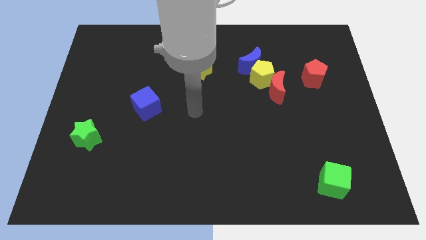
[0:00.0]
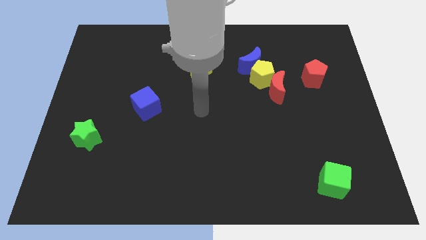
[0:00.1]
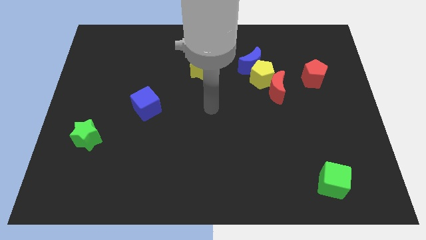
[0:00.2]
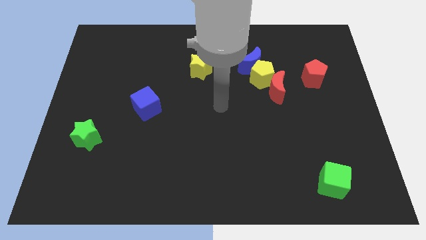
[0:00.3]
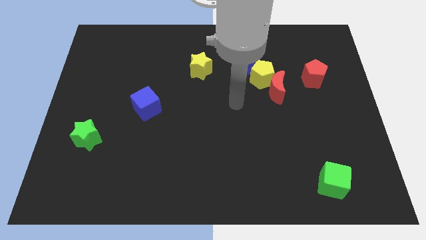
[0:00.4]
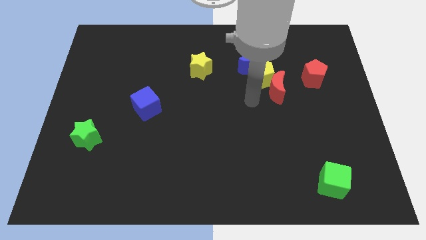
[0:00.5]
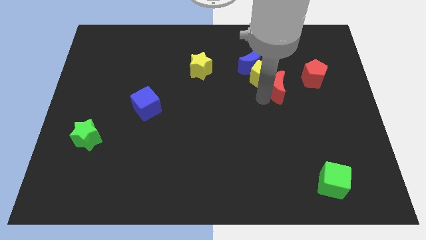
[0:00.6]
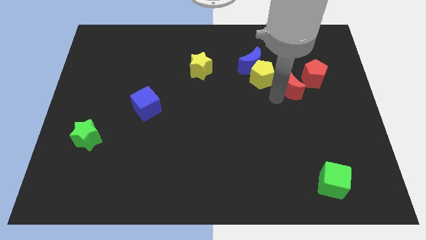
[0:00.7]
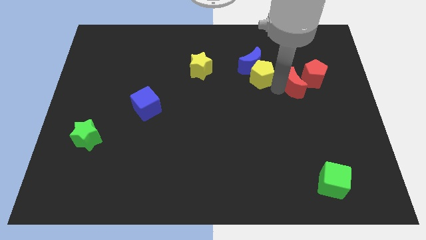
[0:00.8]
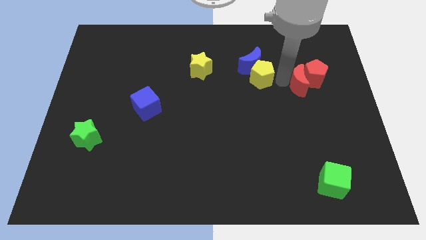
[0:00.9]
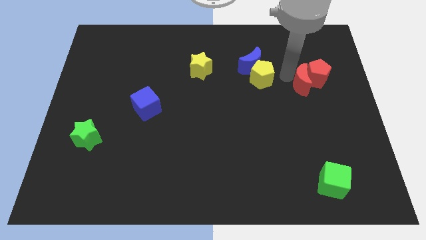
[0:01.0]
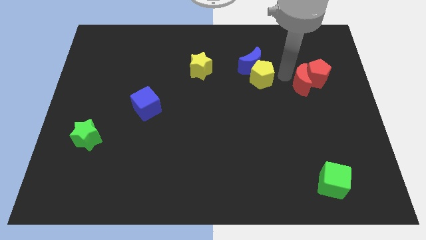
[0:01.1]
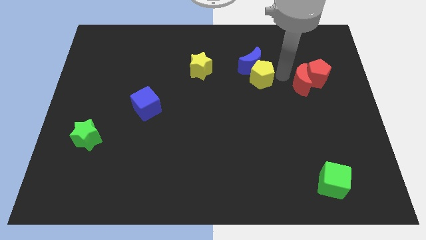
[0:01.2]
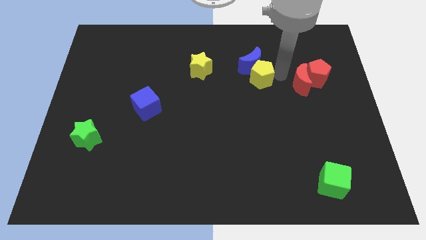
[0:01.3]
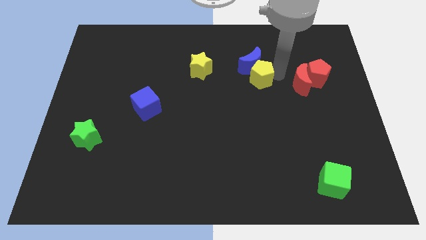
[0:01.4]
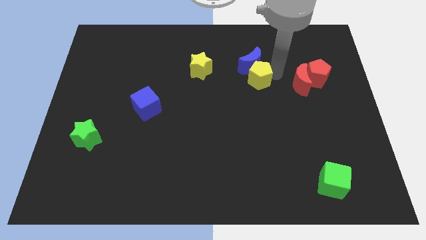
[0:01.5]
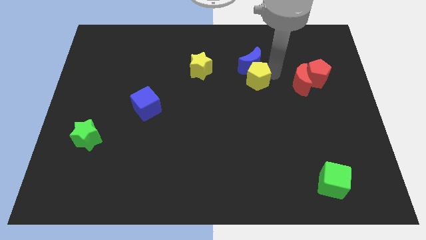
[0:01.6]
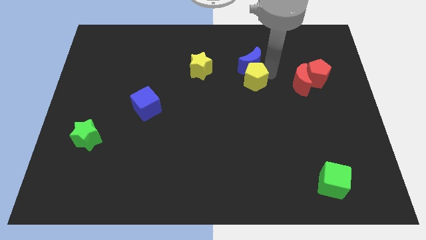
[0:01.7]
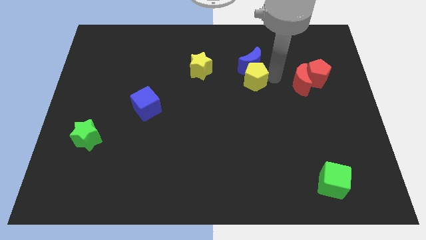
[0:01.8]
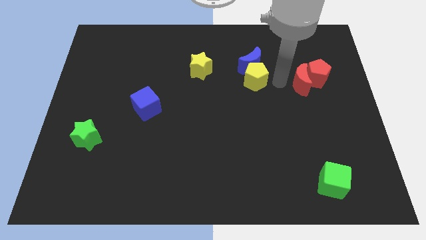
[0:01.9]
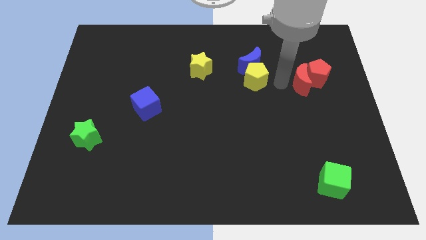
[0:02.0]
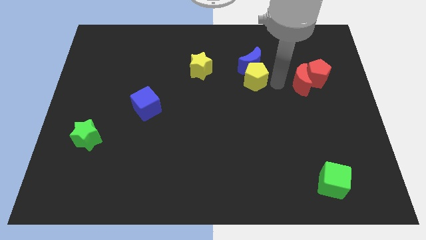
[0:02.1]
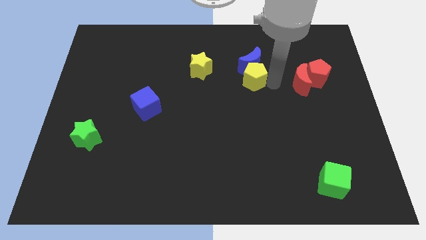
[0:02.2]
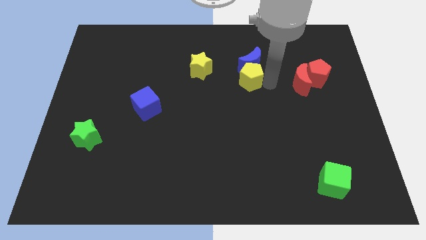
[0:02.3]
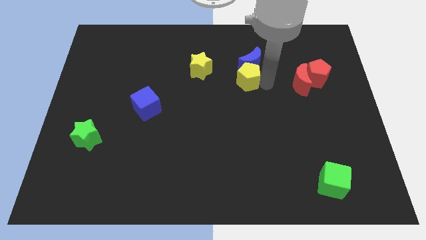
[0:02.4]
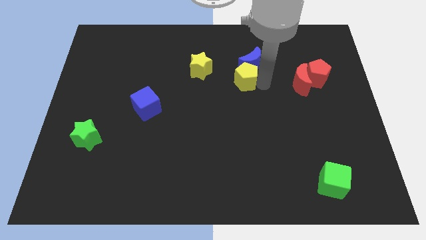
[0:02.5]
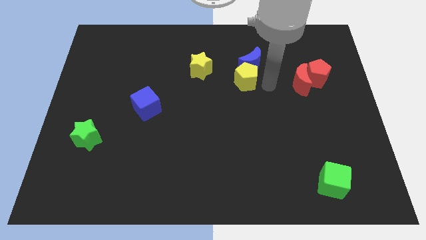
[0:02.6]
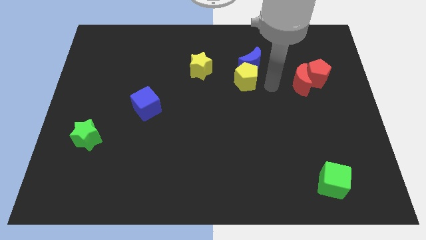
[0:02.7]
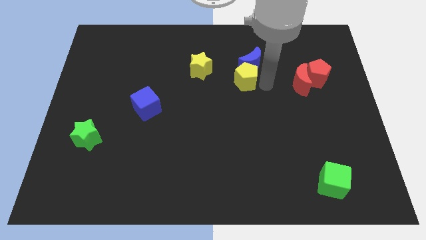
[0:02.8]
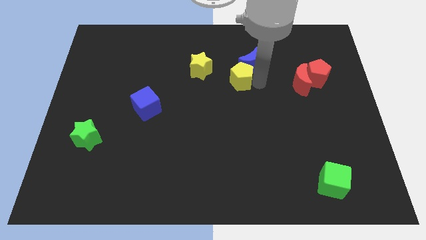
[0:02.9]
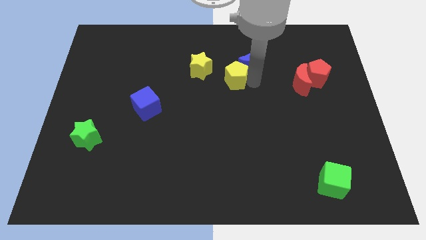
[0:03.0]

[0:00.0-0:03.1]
pull the yellow pentagon apart from the blue moon and red moon

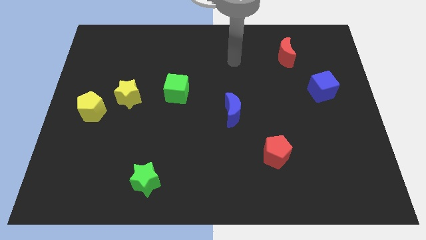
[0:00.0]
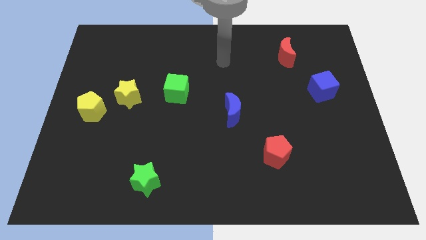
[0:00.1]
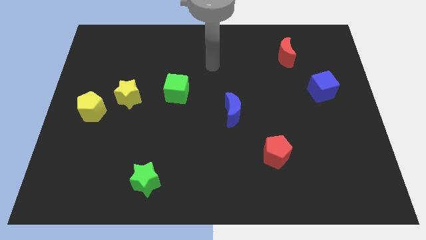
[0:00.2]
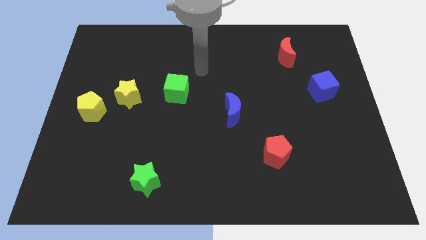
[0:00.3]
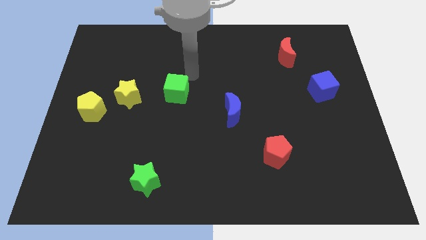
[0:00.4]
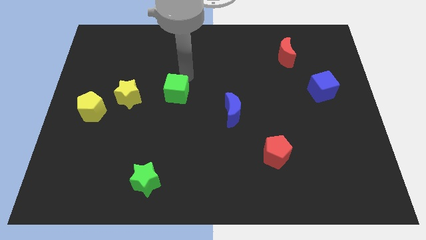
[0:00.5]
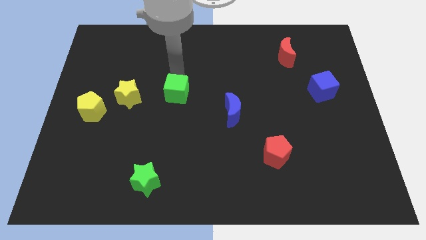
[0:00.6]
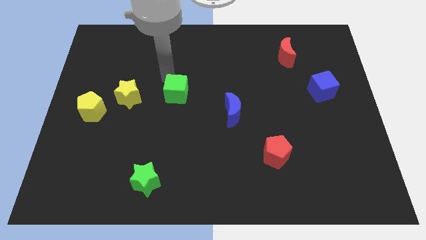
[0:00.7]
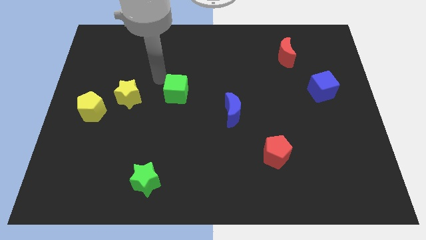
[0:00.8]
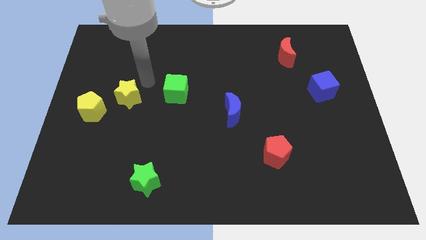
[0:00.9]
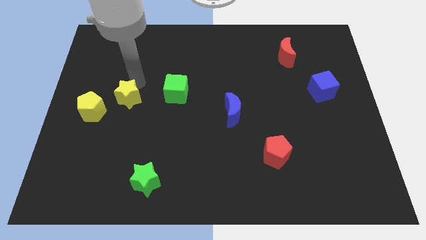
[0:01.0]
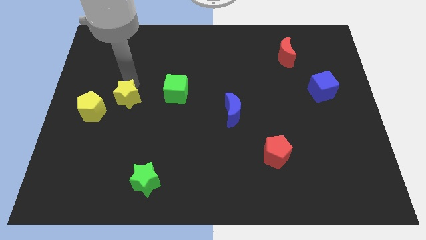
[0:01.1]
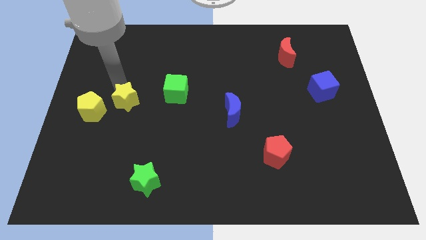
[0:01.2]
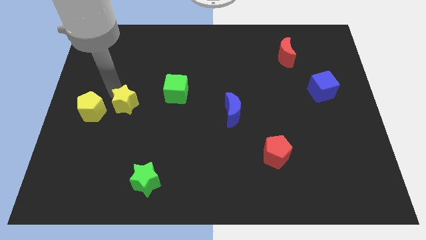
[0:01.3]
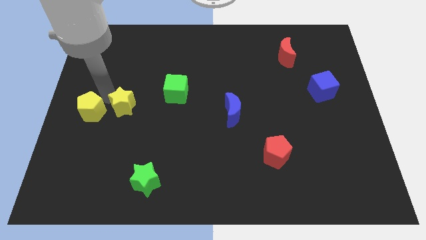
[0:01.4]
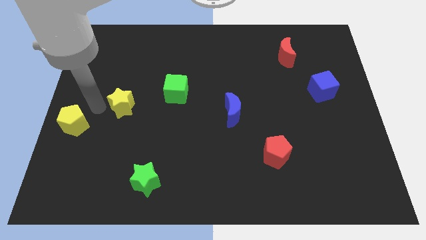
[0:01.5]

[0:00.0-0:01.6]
move the yellow star away from the yellow pentagon

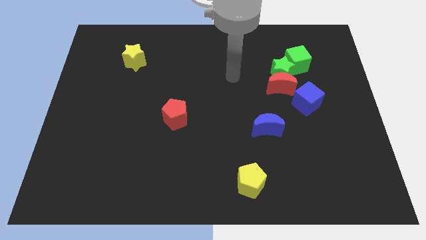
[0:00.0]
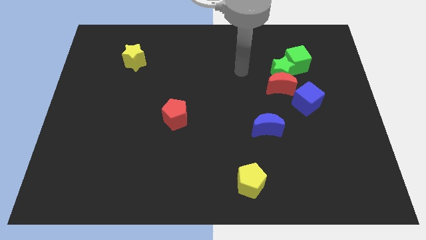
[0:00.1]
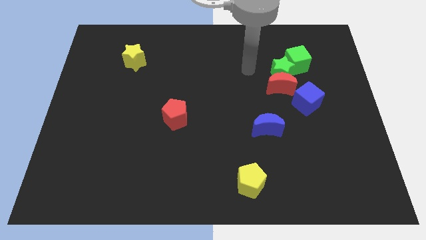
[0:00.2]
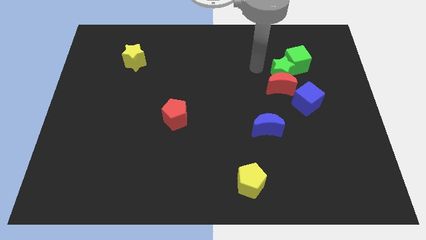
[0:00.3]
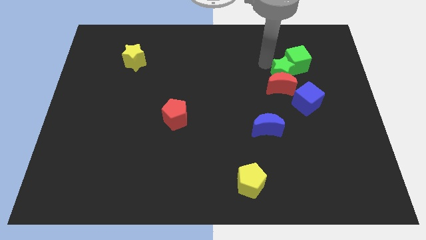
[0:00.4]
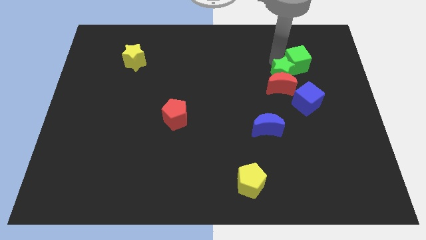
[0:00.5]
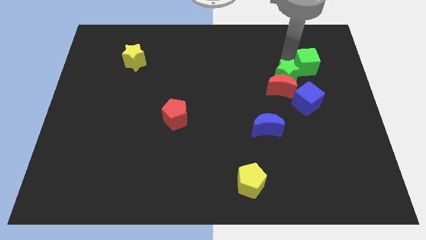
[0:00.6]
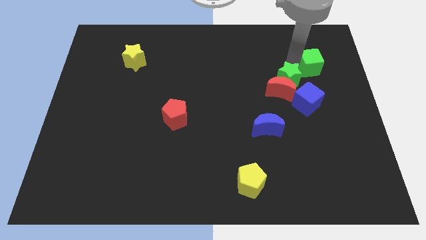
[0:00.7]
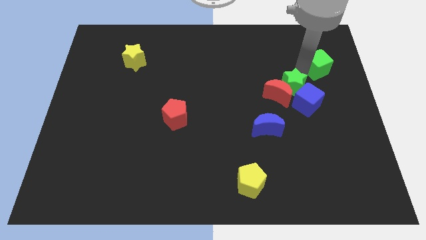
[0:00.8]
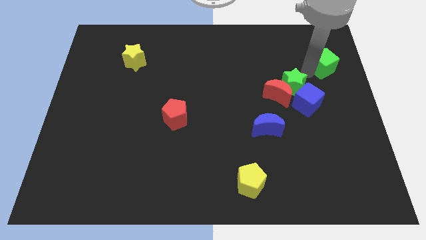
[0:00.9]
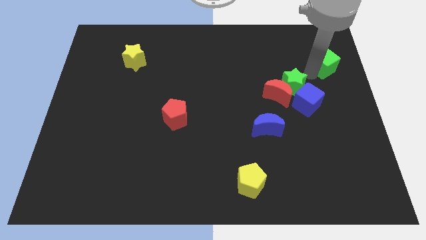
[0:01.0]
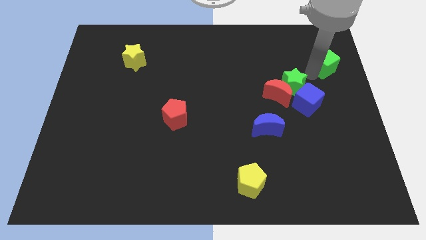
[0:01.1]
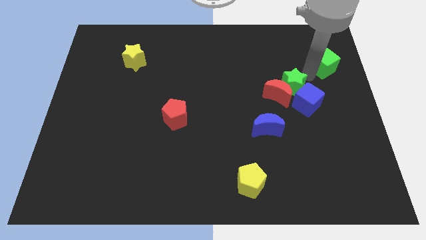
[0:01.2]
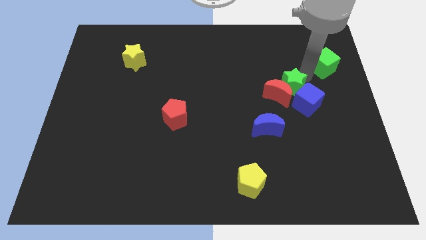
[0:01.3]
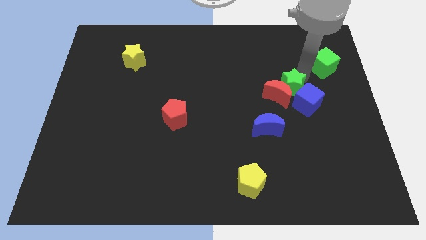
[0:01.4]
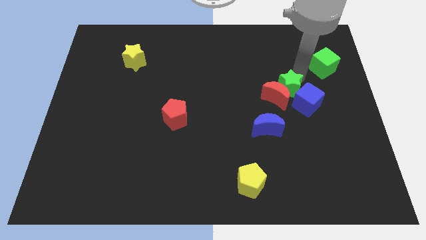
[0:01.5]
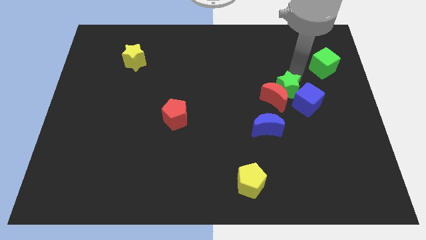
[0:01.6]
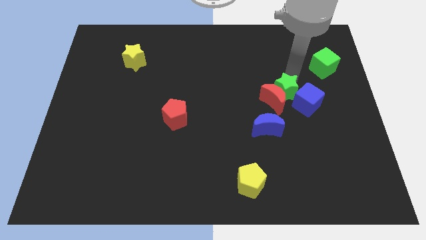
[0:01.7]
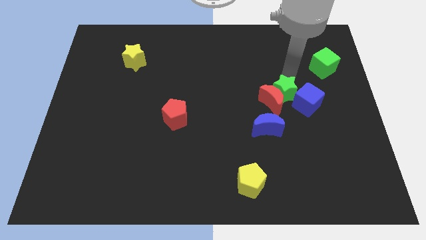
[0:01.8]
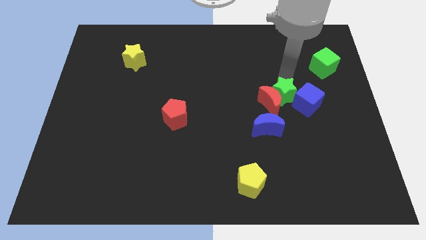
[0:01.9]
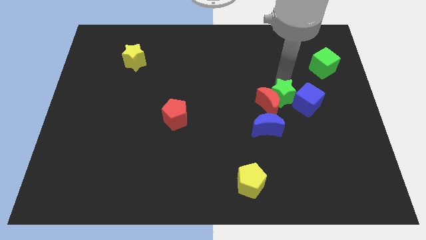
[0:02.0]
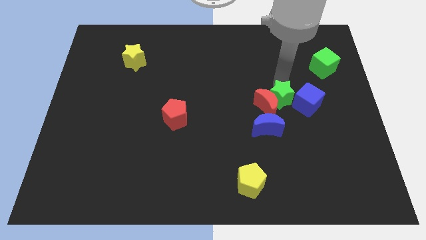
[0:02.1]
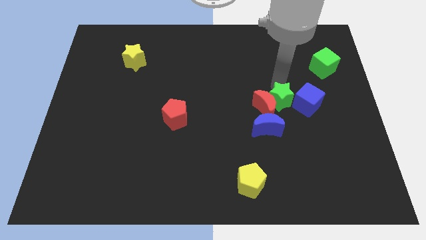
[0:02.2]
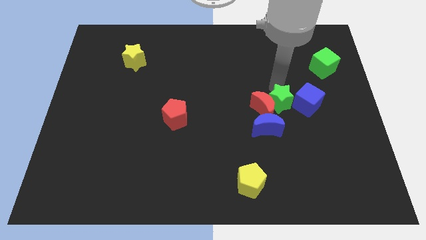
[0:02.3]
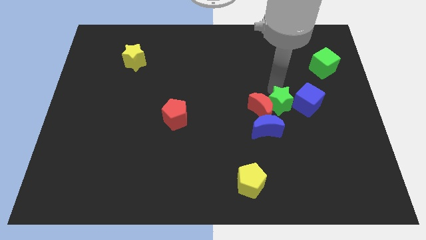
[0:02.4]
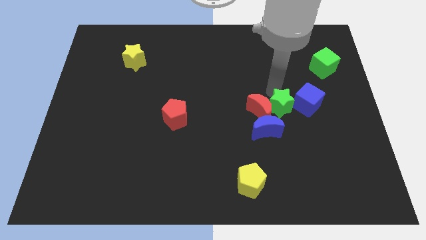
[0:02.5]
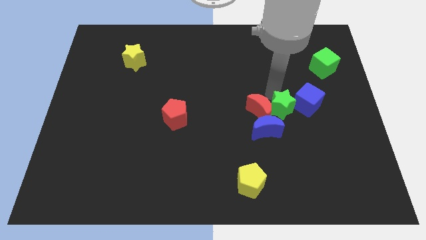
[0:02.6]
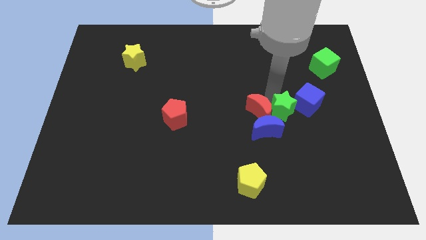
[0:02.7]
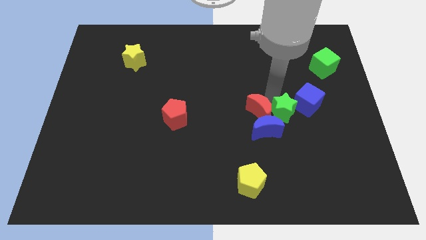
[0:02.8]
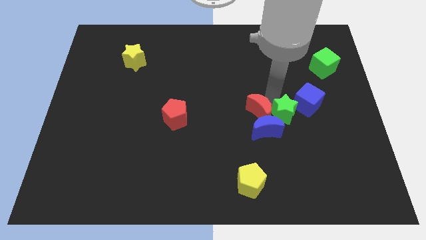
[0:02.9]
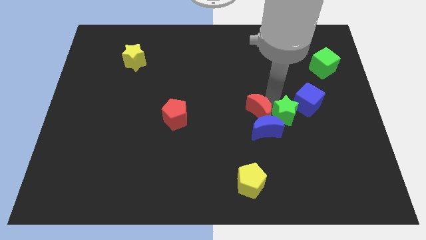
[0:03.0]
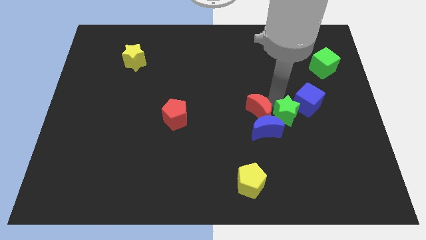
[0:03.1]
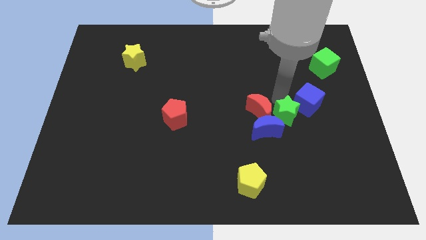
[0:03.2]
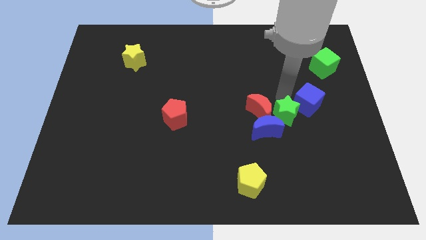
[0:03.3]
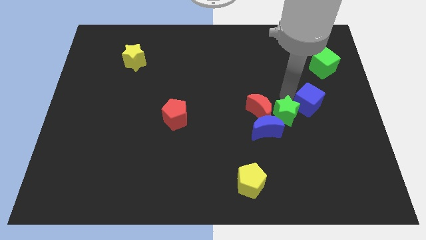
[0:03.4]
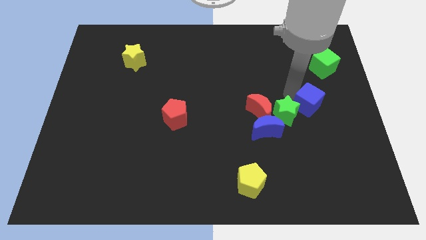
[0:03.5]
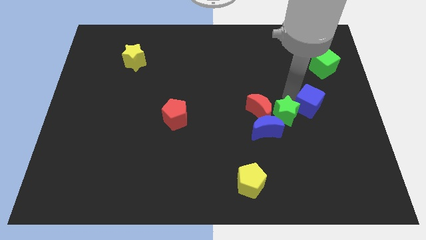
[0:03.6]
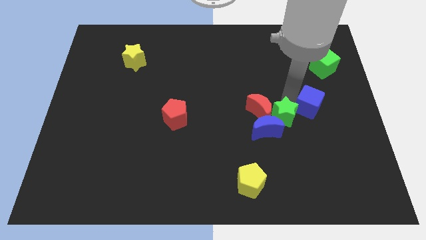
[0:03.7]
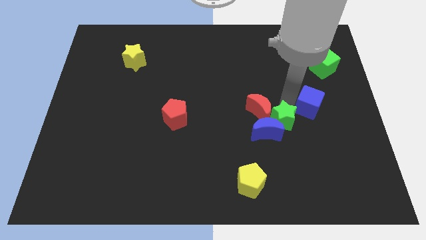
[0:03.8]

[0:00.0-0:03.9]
pull the green star apart from the red moon and green cube

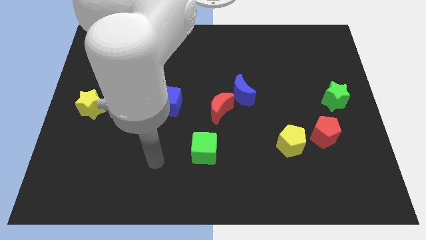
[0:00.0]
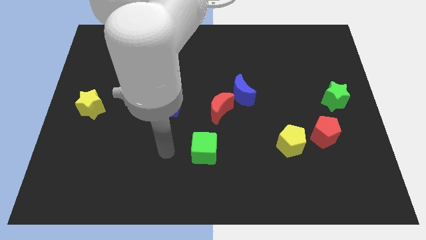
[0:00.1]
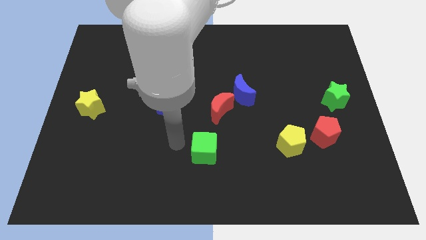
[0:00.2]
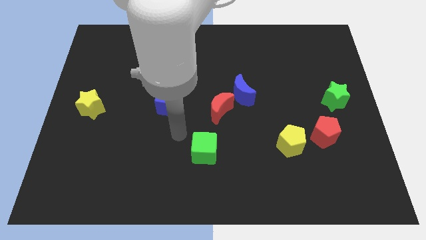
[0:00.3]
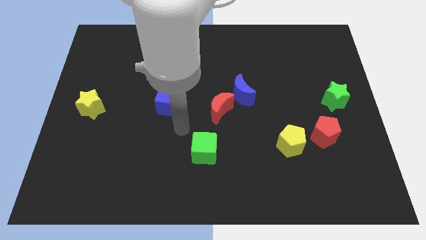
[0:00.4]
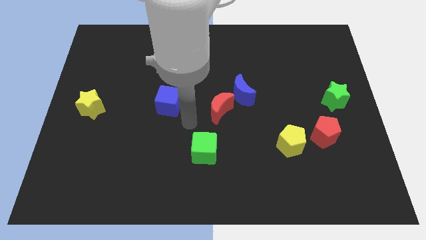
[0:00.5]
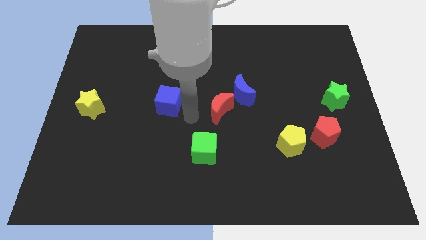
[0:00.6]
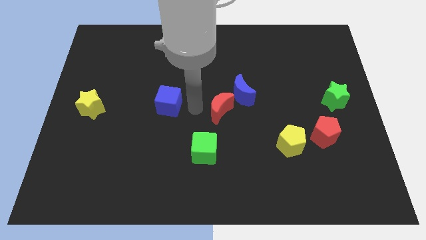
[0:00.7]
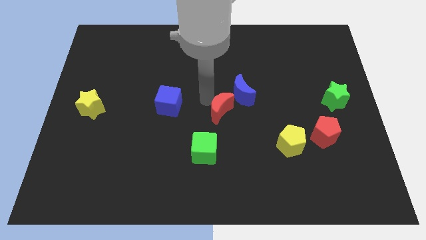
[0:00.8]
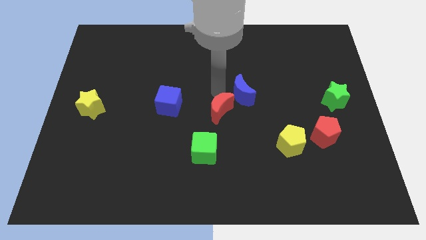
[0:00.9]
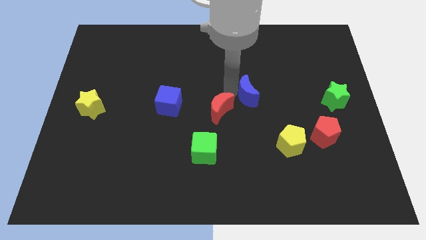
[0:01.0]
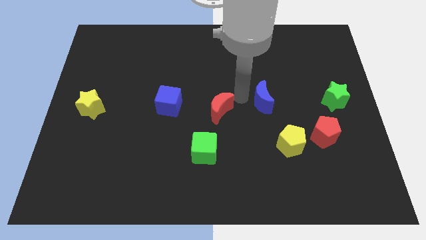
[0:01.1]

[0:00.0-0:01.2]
pull the red moon apart from the blue moon
